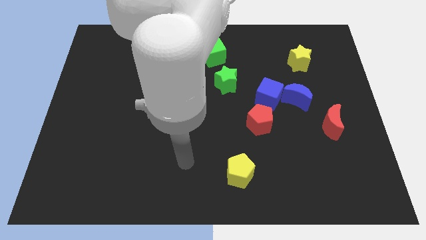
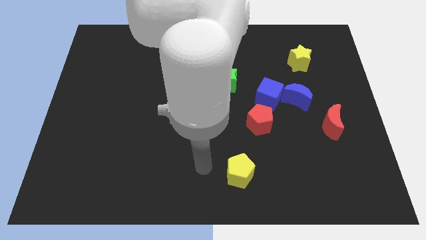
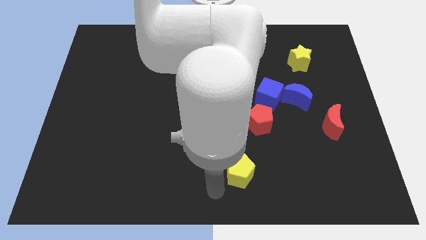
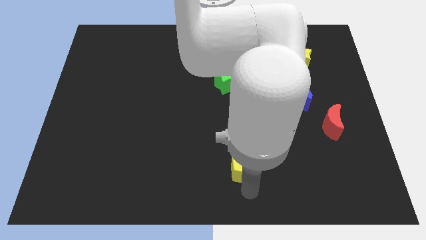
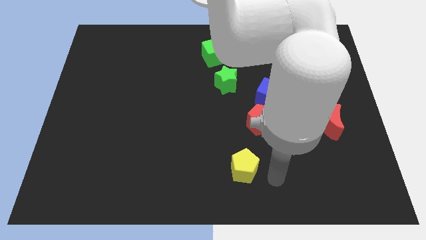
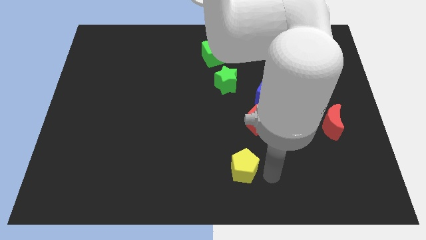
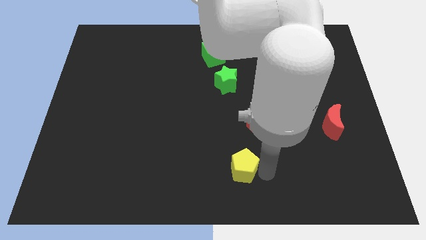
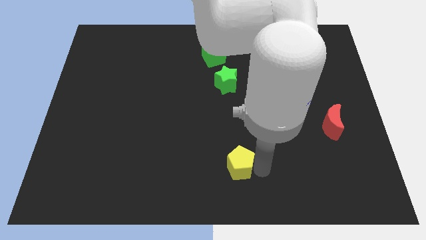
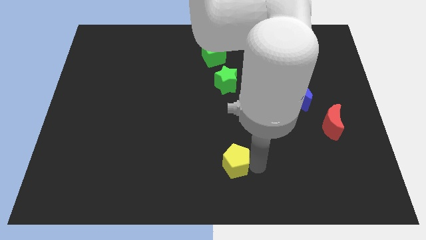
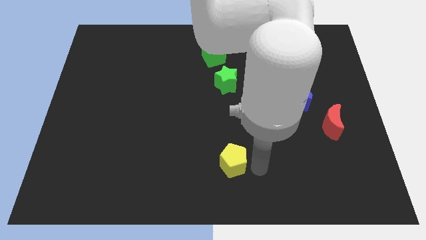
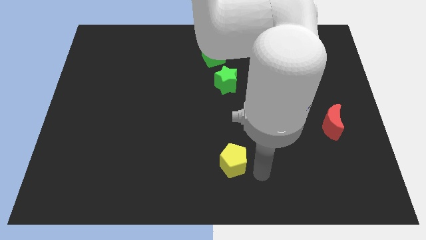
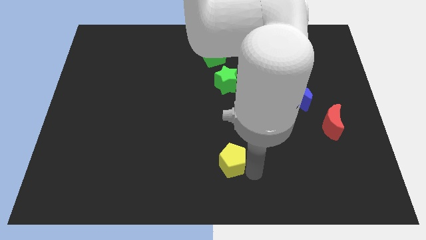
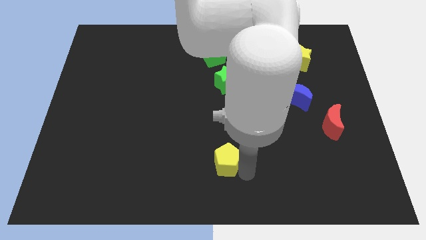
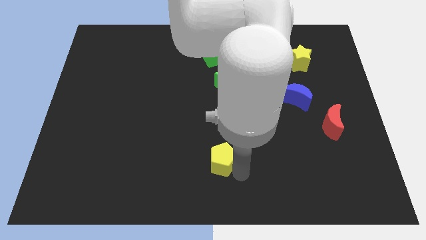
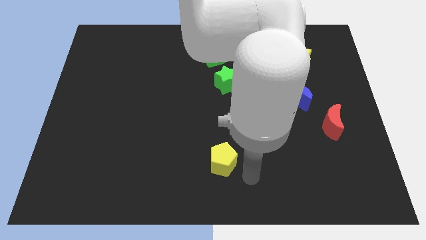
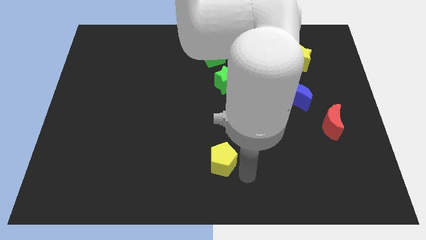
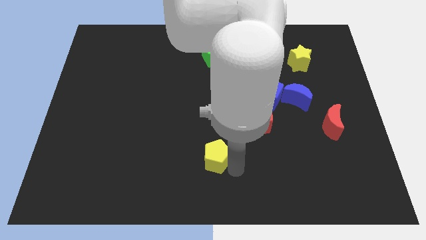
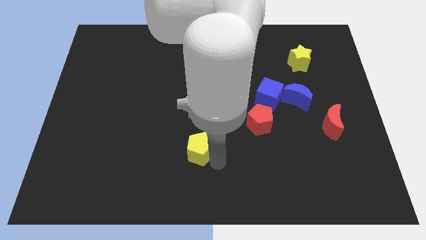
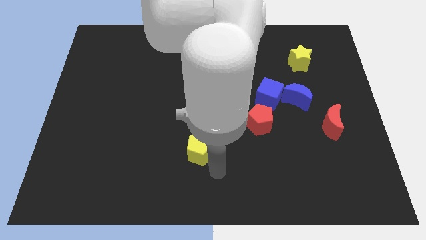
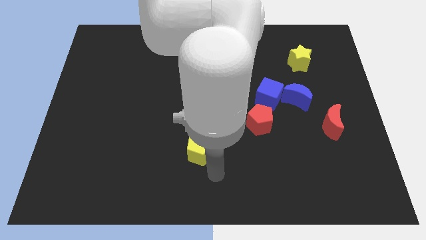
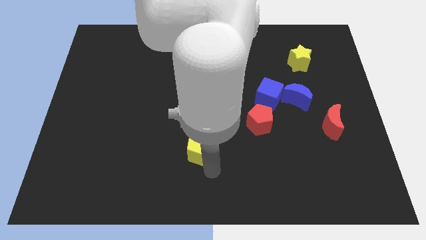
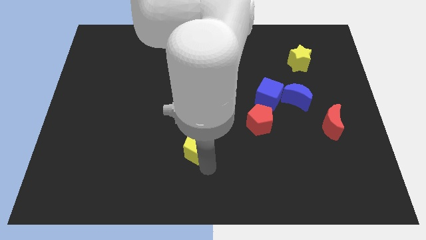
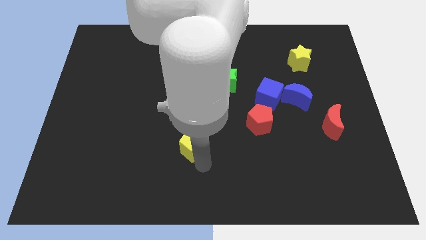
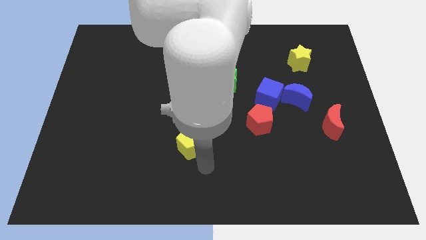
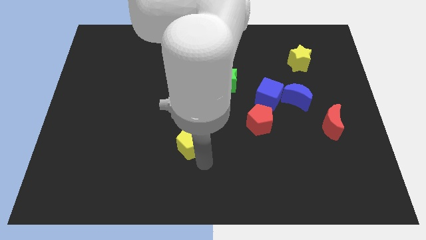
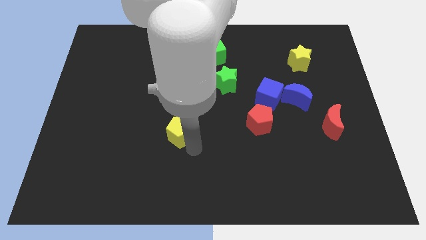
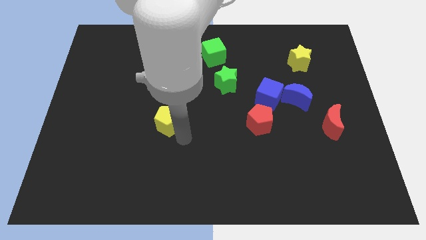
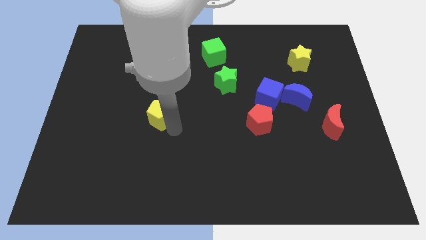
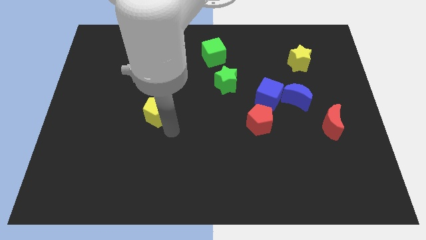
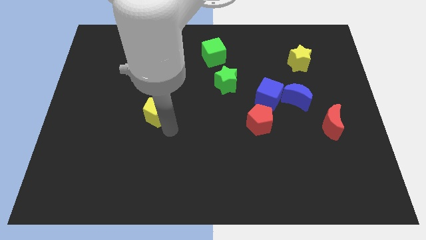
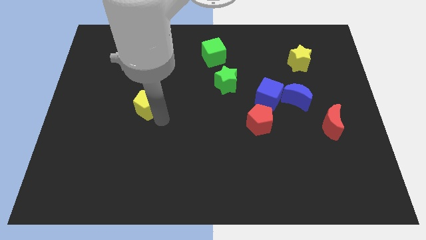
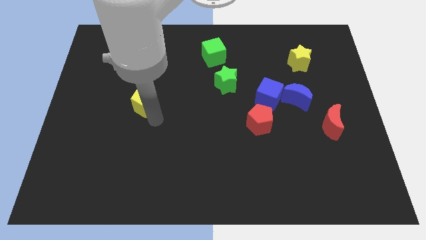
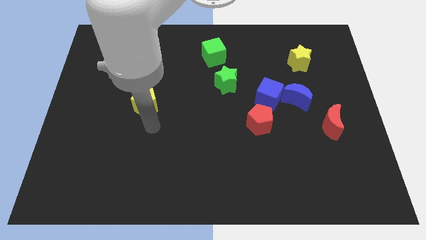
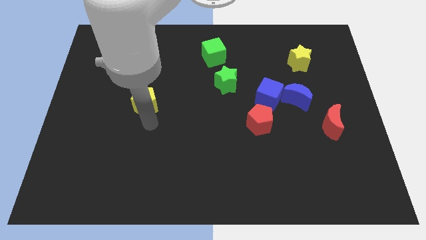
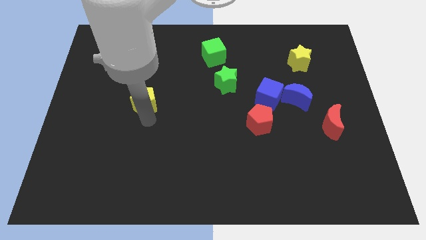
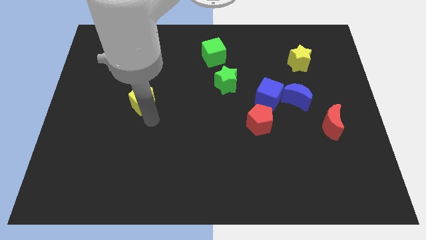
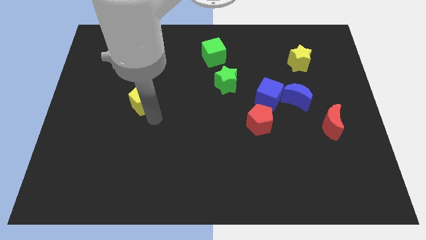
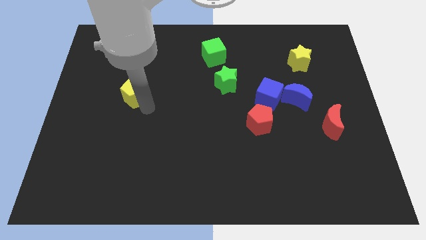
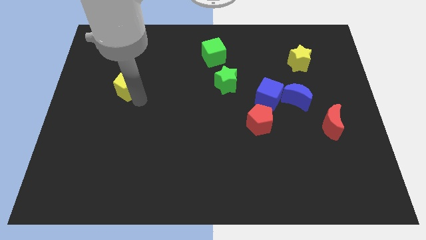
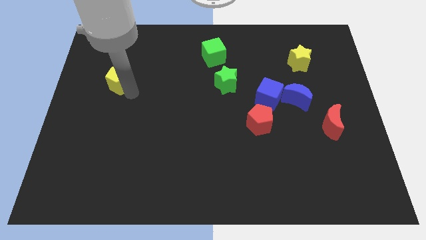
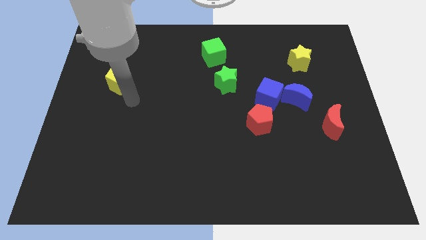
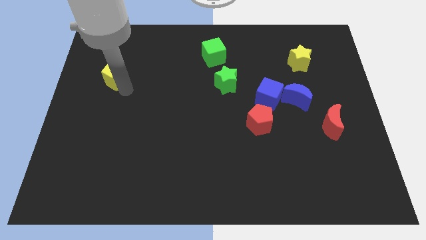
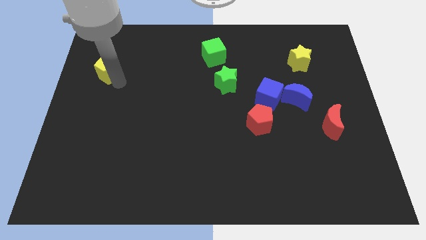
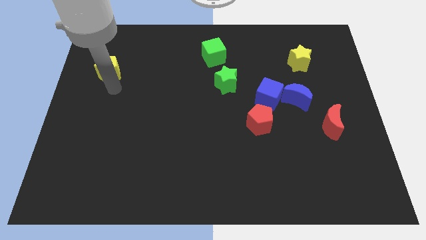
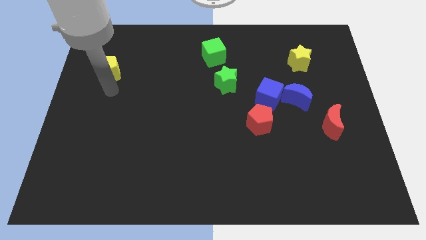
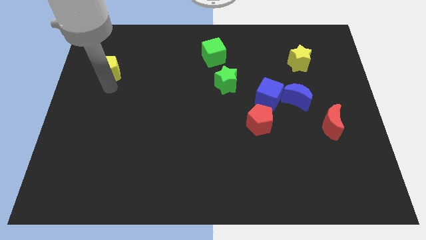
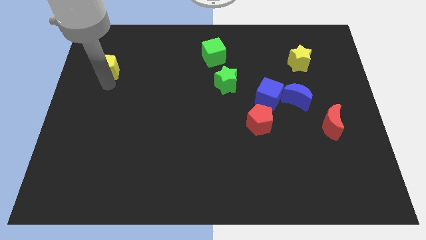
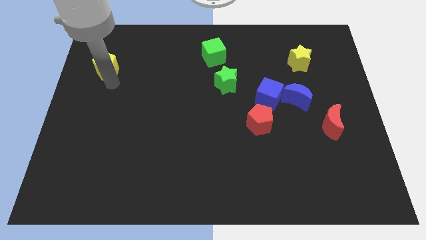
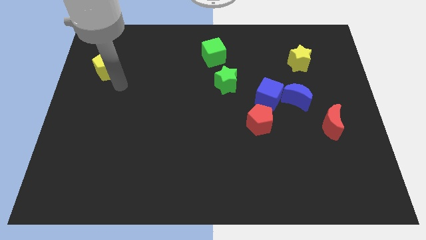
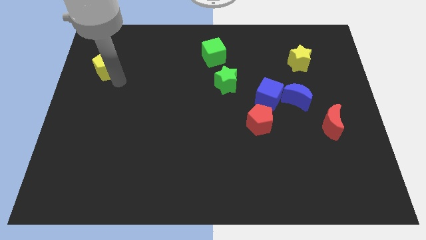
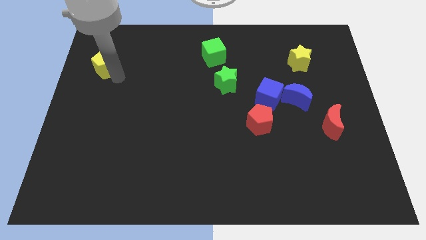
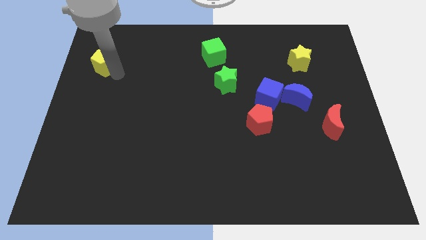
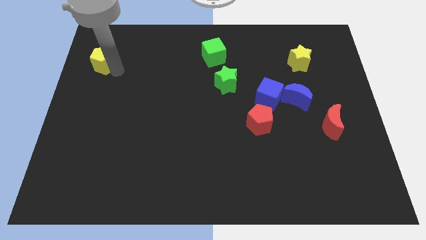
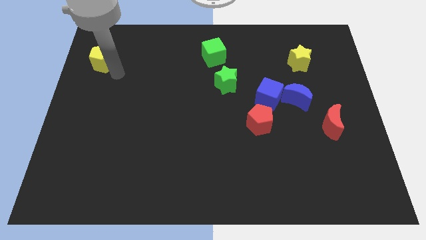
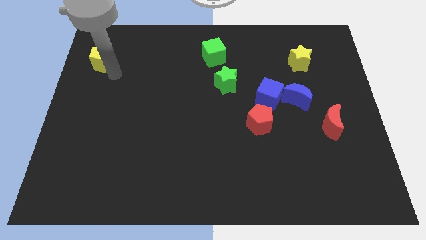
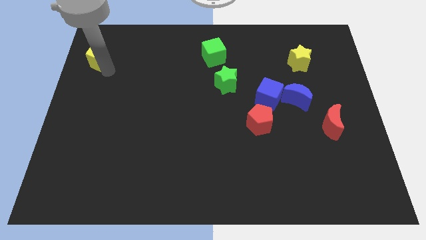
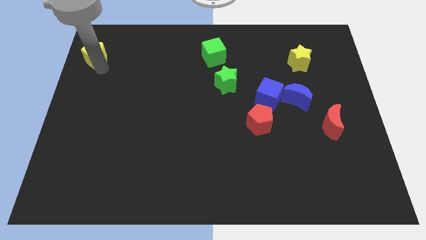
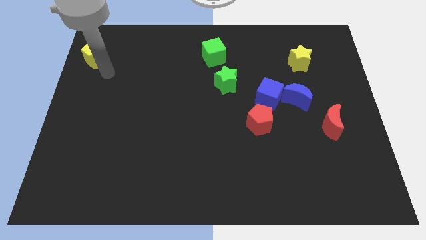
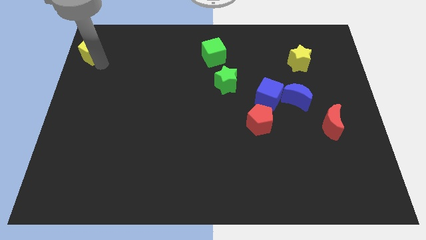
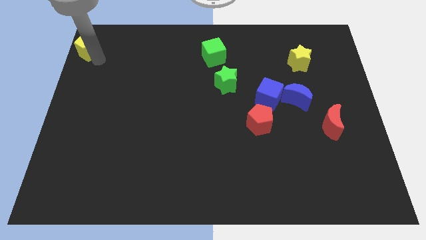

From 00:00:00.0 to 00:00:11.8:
put the yellow pentagon to the upper left corner
